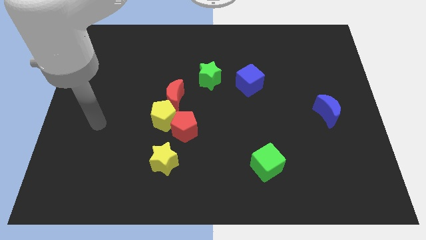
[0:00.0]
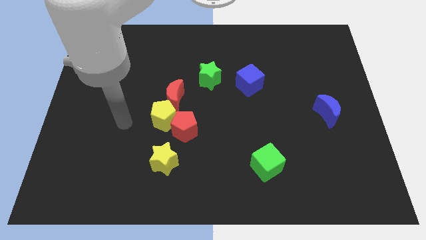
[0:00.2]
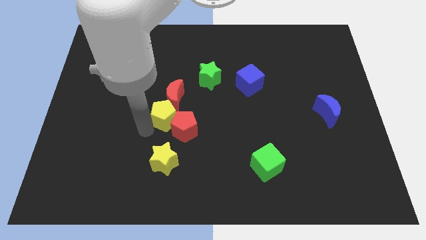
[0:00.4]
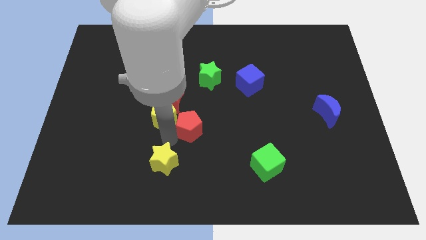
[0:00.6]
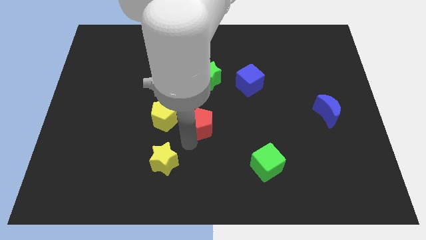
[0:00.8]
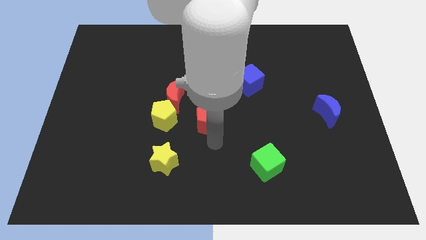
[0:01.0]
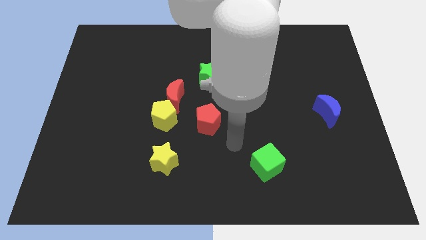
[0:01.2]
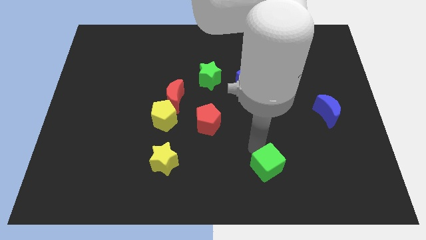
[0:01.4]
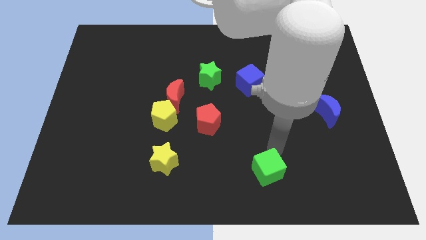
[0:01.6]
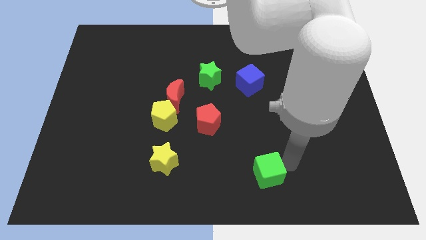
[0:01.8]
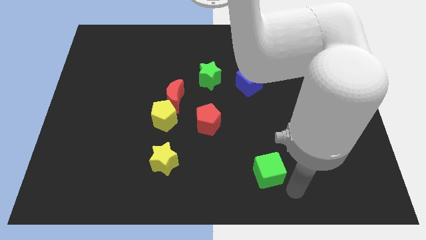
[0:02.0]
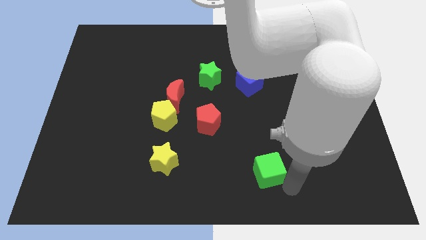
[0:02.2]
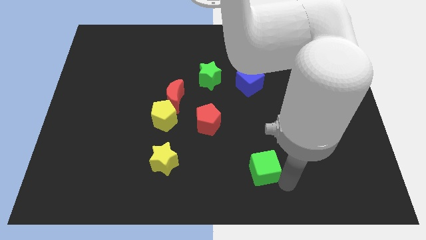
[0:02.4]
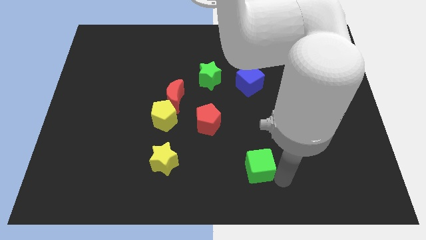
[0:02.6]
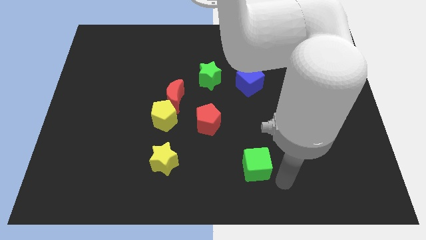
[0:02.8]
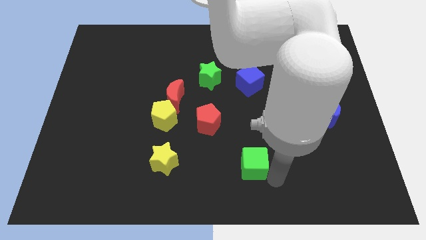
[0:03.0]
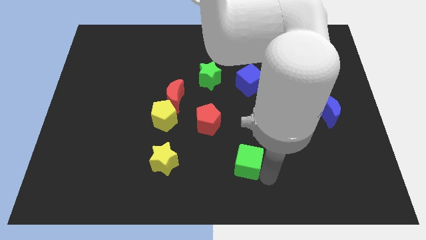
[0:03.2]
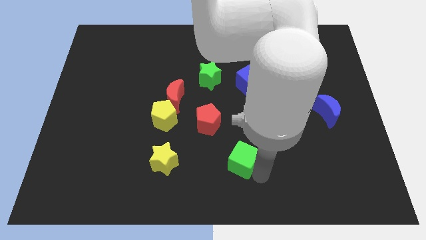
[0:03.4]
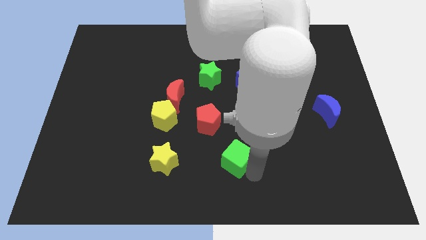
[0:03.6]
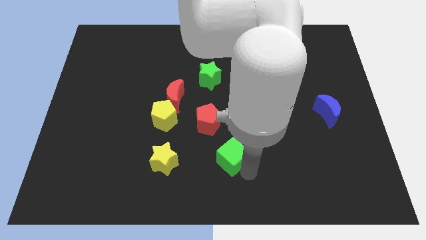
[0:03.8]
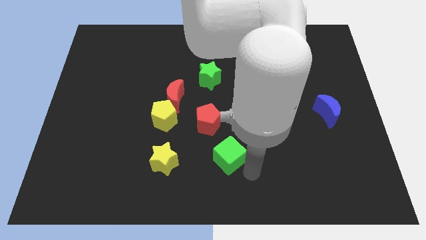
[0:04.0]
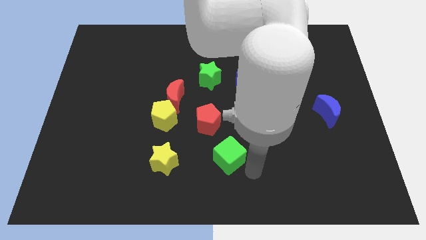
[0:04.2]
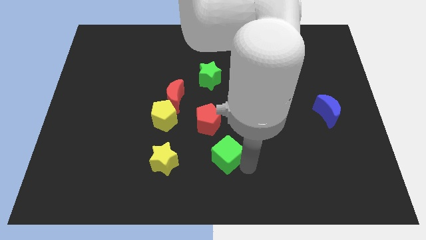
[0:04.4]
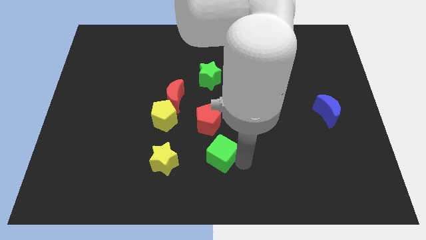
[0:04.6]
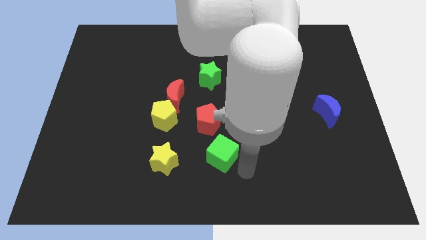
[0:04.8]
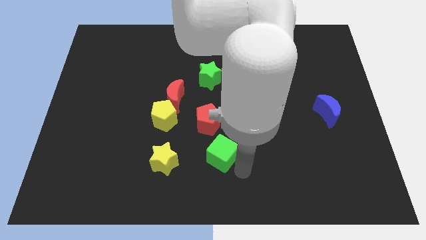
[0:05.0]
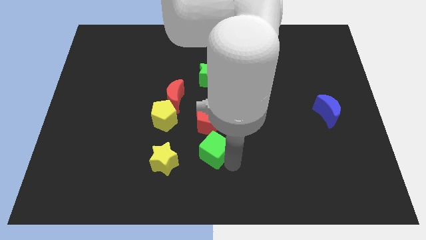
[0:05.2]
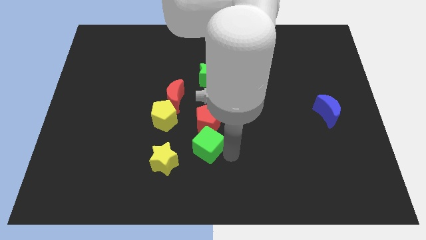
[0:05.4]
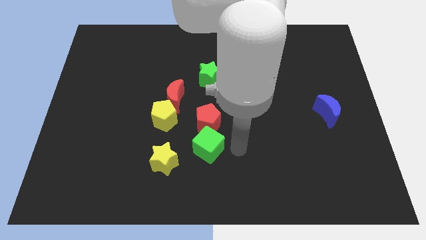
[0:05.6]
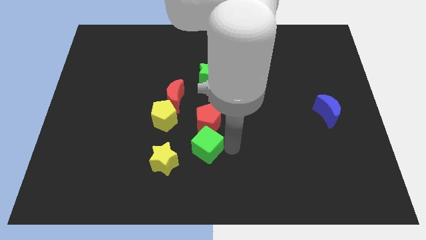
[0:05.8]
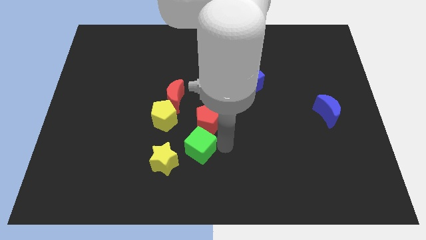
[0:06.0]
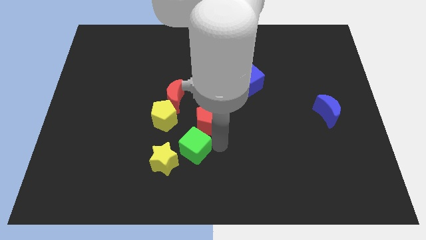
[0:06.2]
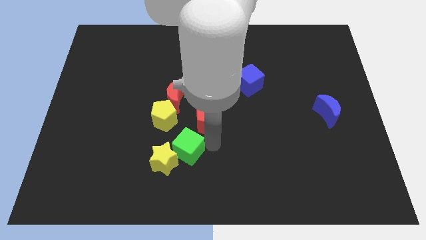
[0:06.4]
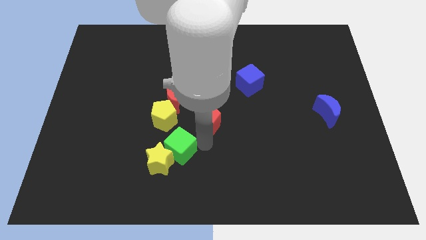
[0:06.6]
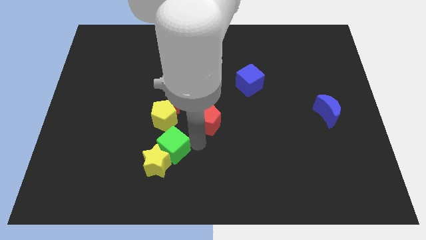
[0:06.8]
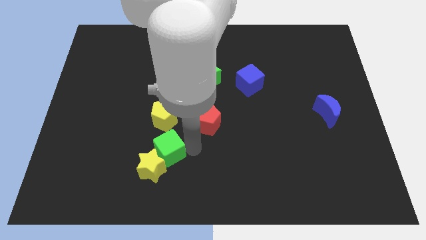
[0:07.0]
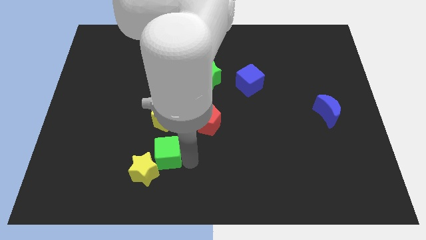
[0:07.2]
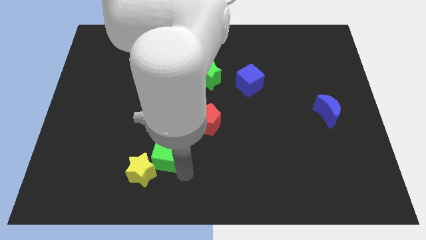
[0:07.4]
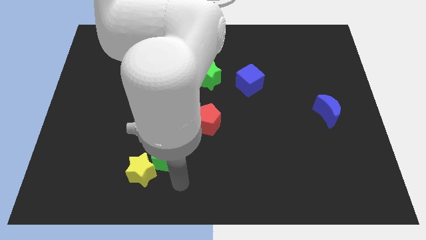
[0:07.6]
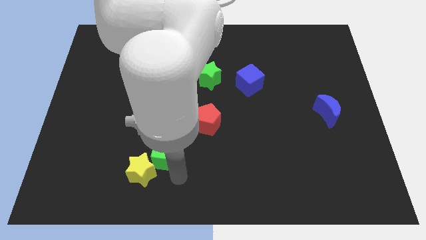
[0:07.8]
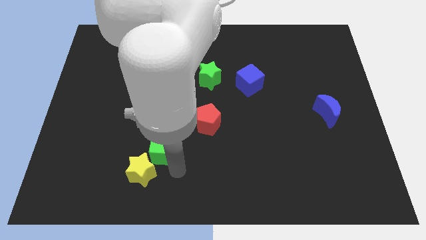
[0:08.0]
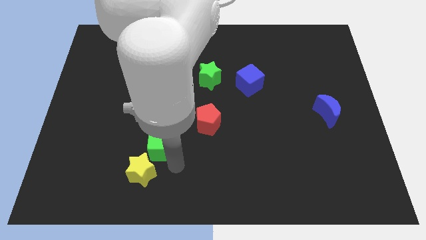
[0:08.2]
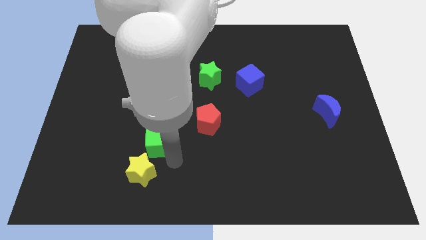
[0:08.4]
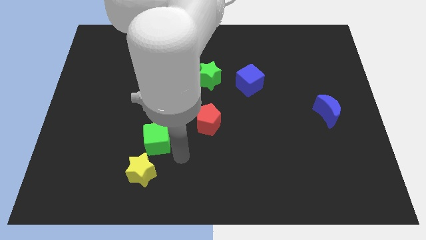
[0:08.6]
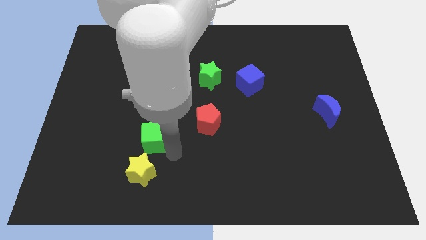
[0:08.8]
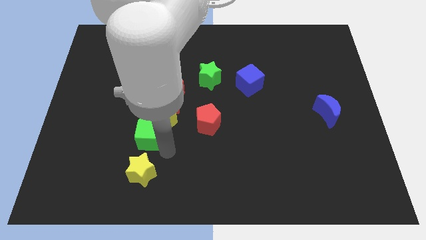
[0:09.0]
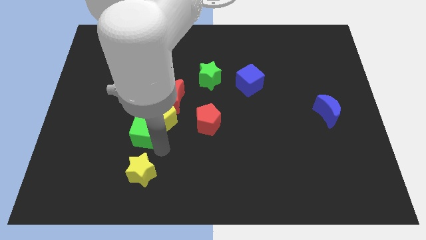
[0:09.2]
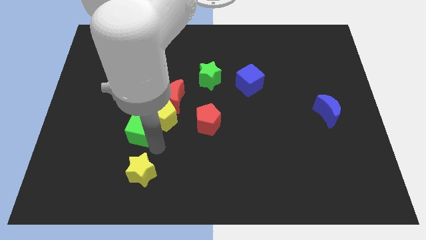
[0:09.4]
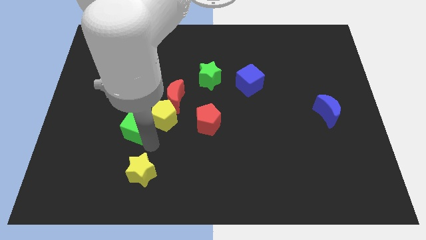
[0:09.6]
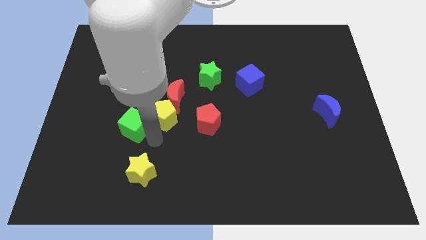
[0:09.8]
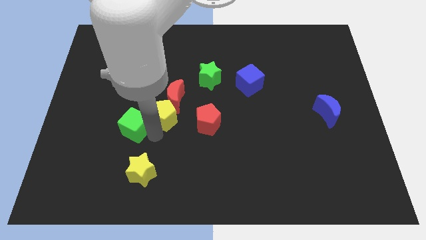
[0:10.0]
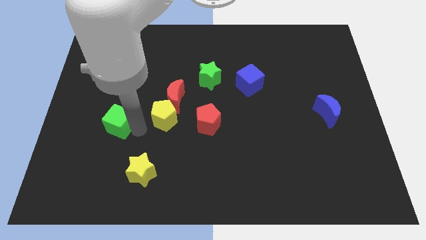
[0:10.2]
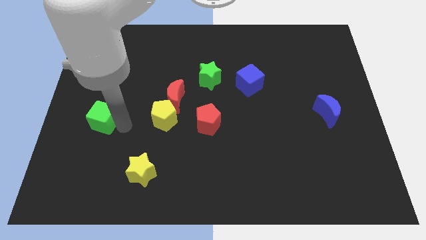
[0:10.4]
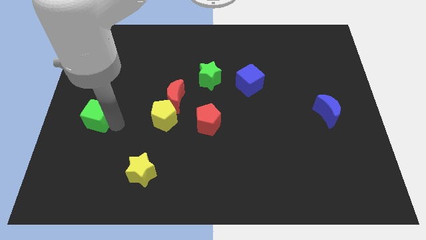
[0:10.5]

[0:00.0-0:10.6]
push the green cube to the center left
